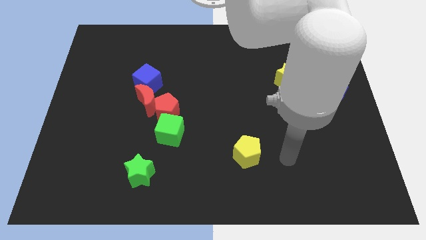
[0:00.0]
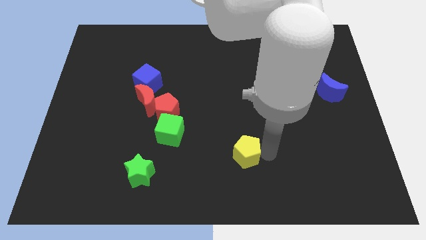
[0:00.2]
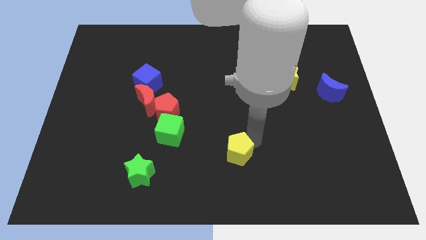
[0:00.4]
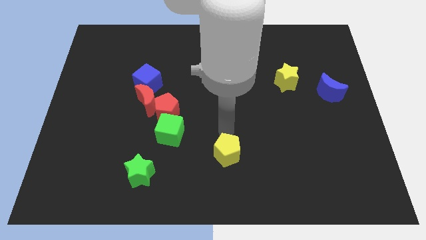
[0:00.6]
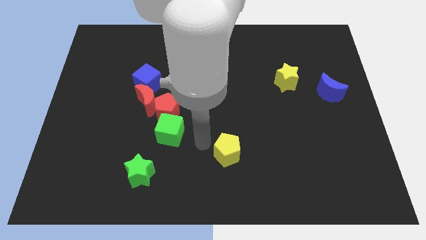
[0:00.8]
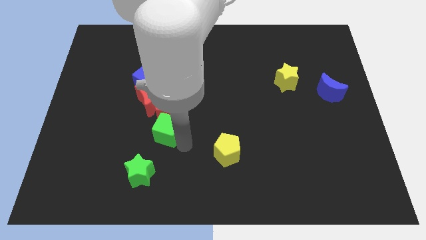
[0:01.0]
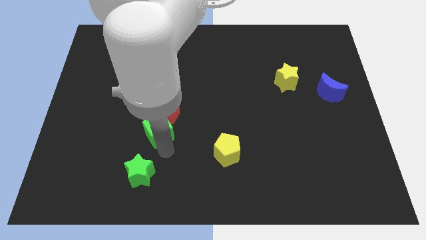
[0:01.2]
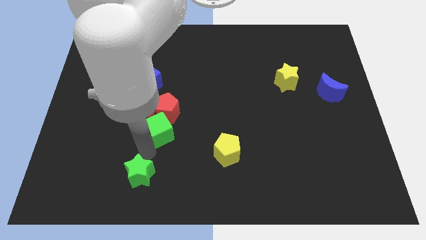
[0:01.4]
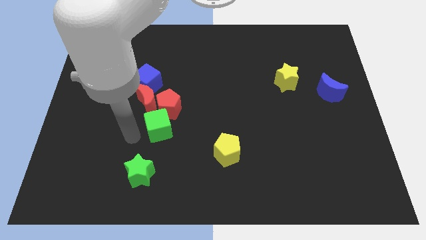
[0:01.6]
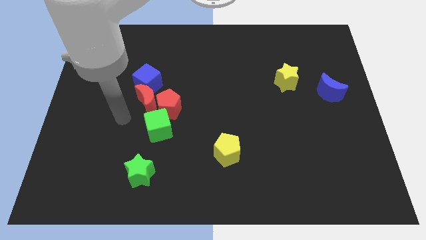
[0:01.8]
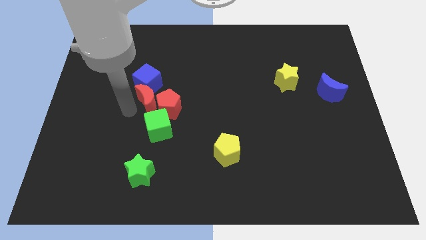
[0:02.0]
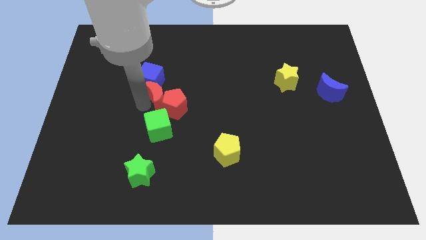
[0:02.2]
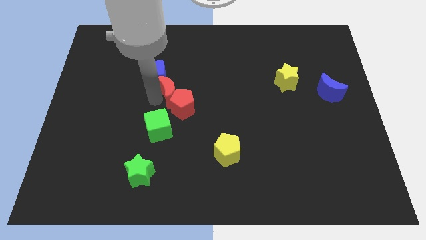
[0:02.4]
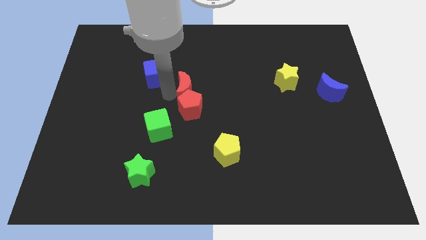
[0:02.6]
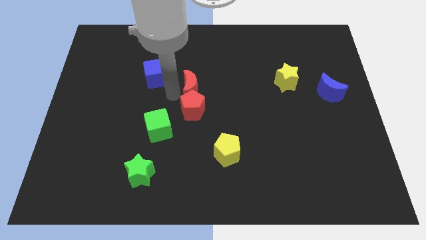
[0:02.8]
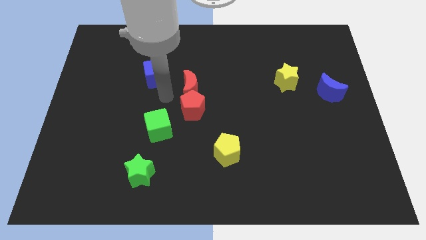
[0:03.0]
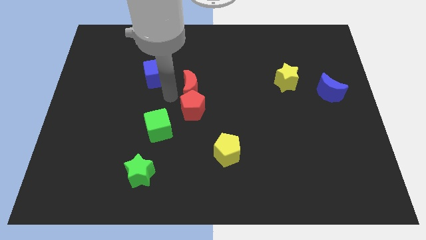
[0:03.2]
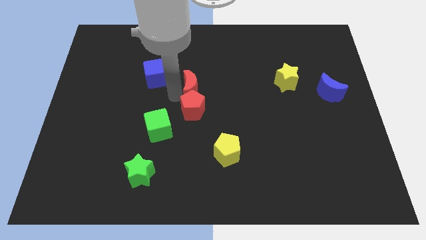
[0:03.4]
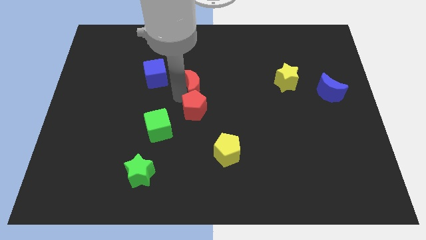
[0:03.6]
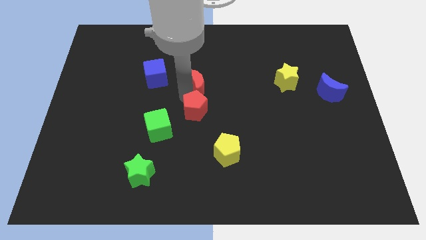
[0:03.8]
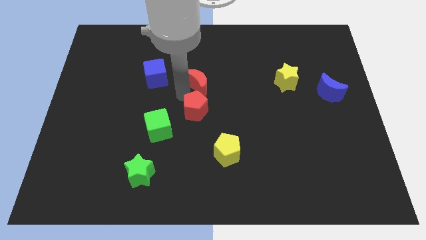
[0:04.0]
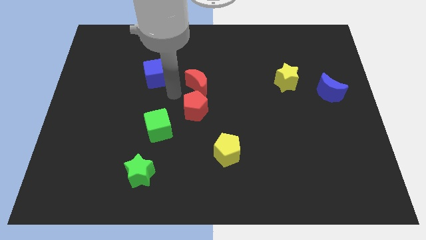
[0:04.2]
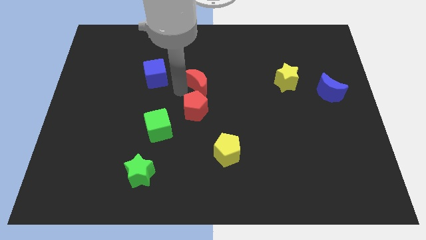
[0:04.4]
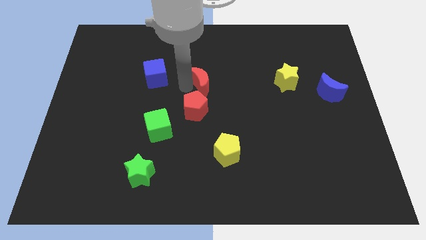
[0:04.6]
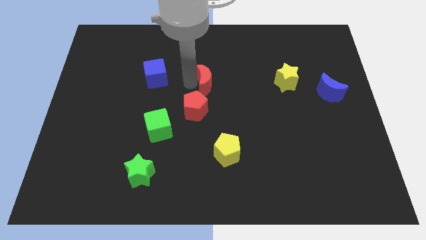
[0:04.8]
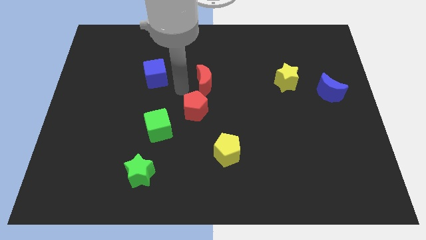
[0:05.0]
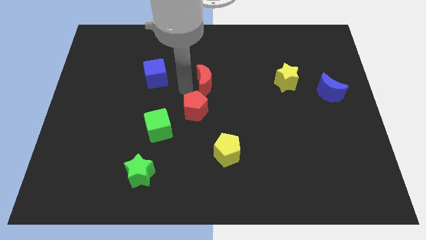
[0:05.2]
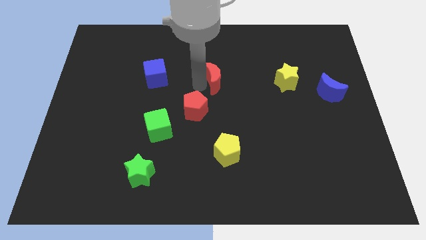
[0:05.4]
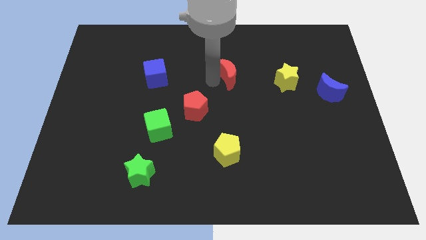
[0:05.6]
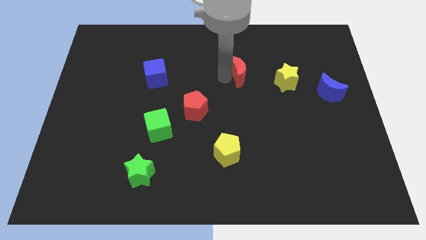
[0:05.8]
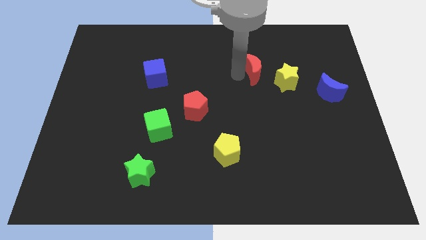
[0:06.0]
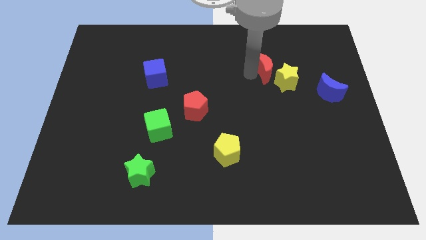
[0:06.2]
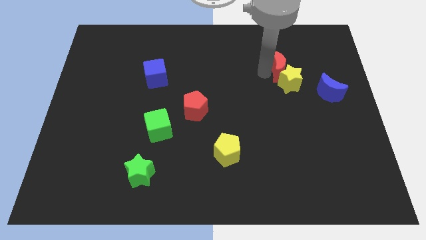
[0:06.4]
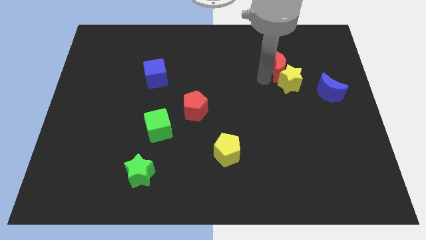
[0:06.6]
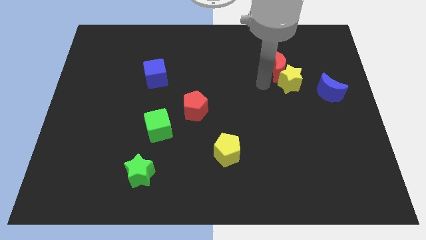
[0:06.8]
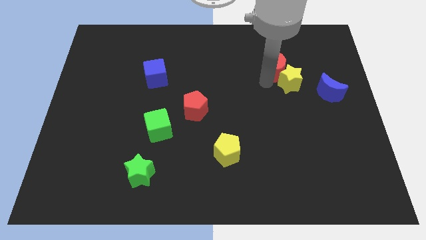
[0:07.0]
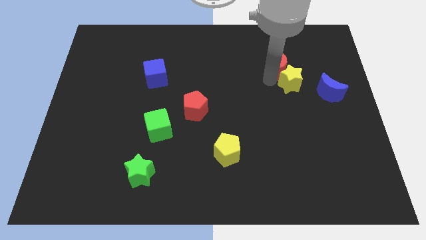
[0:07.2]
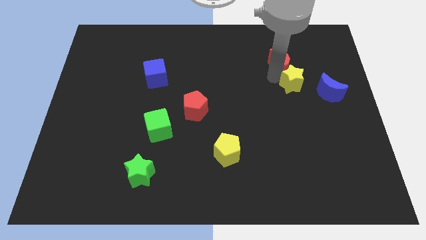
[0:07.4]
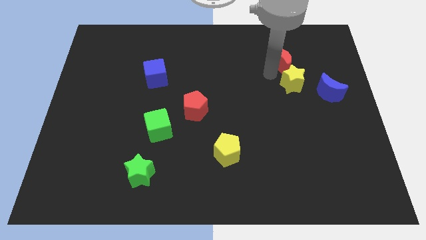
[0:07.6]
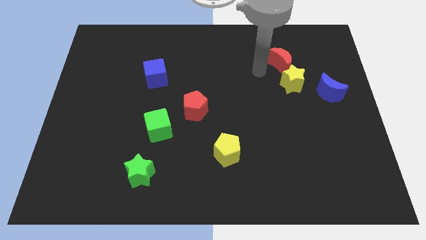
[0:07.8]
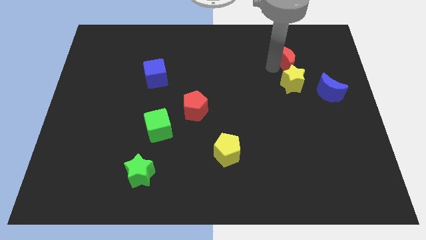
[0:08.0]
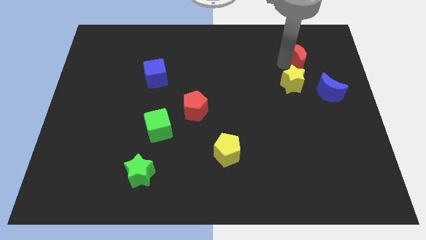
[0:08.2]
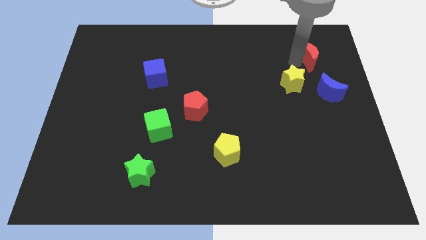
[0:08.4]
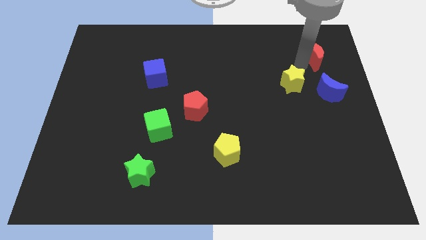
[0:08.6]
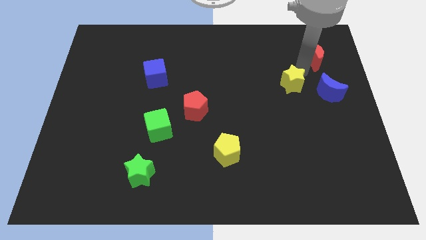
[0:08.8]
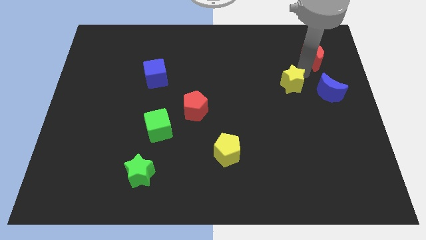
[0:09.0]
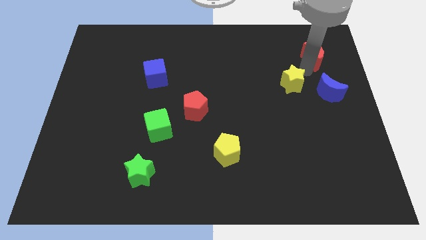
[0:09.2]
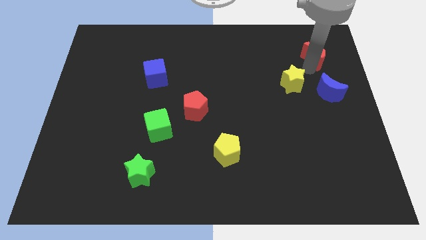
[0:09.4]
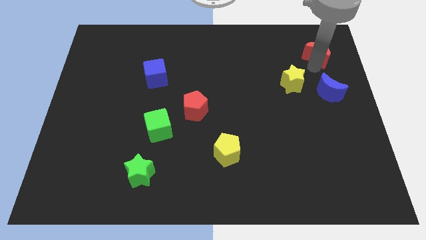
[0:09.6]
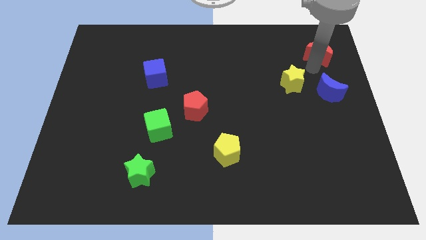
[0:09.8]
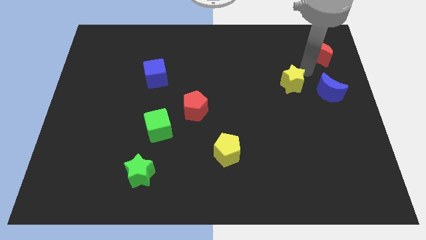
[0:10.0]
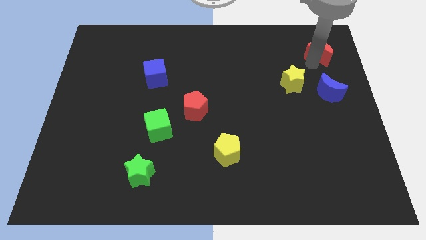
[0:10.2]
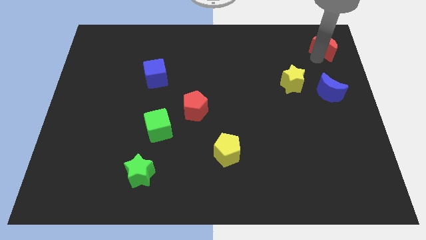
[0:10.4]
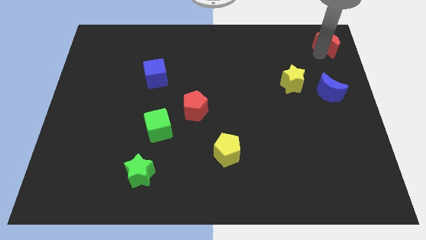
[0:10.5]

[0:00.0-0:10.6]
push the red moon to the top right

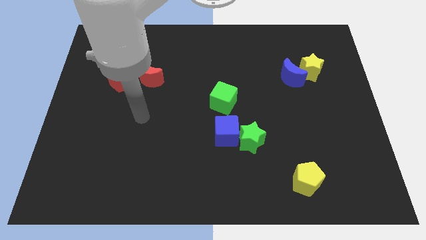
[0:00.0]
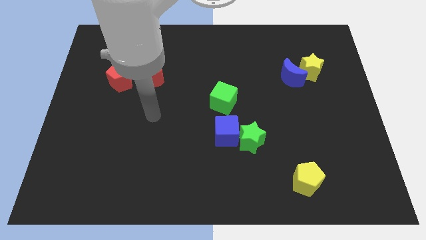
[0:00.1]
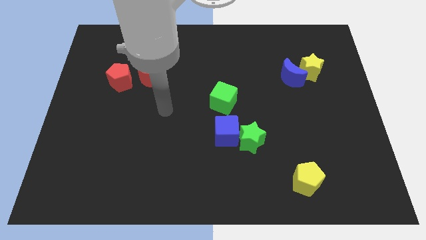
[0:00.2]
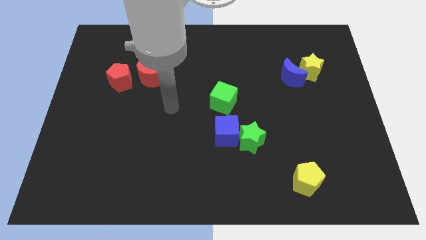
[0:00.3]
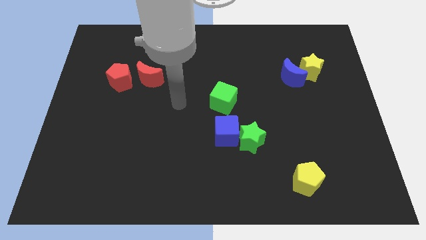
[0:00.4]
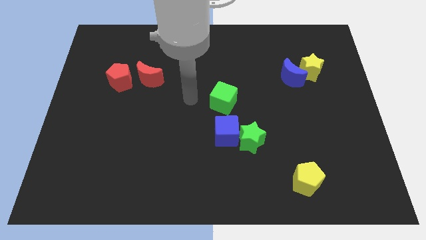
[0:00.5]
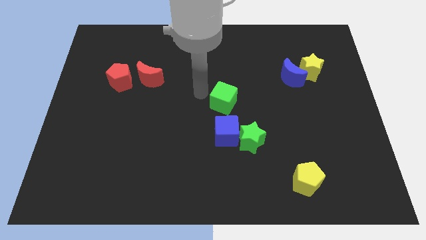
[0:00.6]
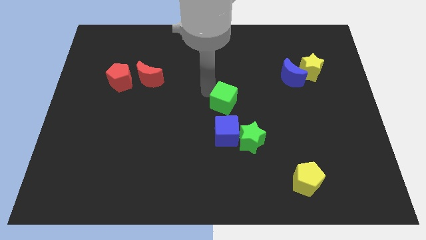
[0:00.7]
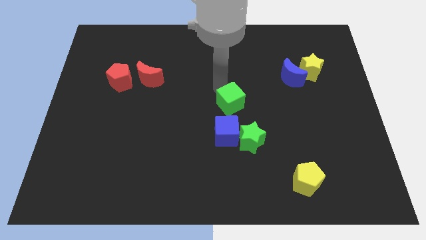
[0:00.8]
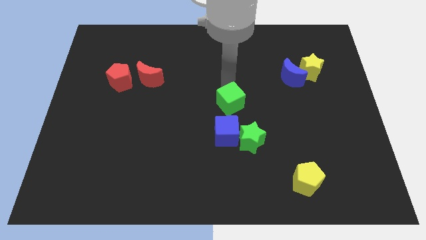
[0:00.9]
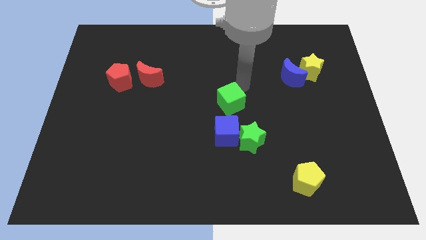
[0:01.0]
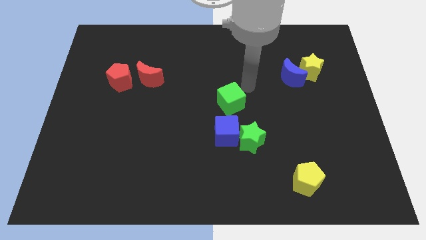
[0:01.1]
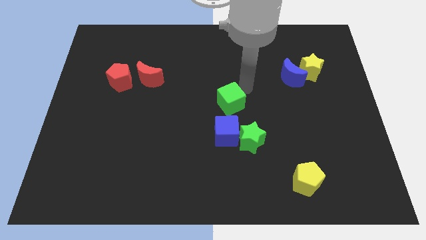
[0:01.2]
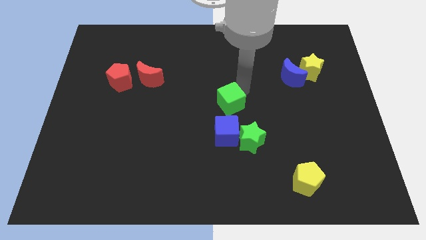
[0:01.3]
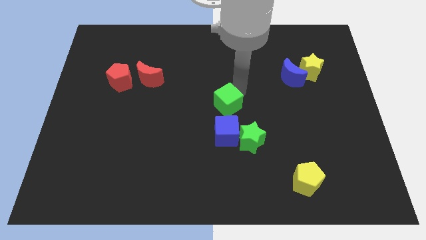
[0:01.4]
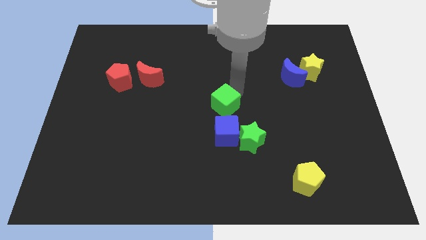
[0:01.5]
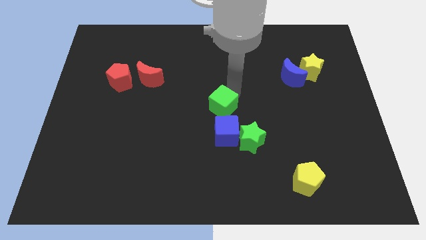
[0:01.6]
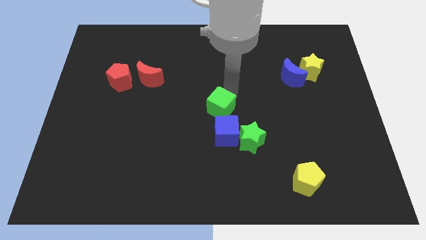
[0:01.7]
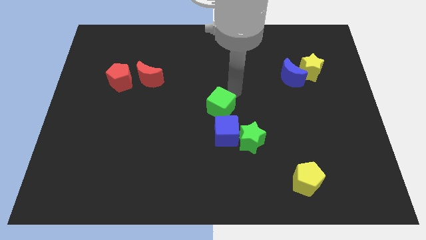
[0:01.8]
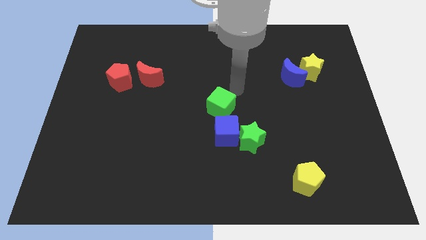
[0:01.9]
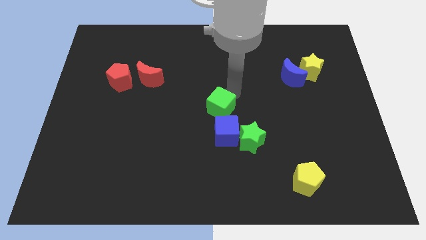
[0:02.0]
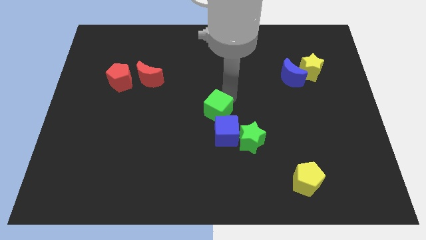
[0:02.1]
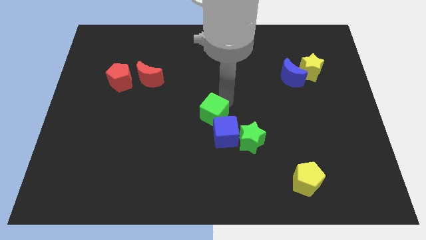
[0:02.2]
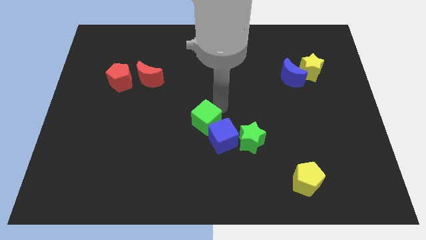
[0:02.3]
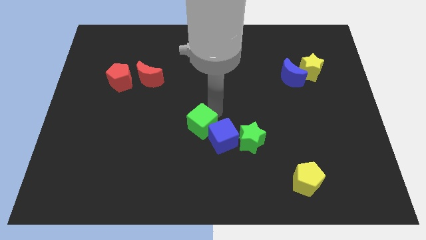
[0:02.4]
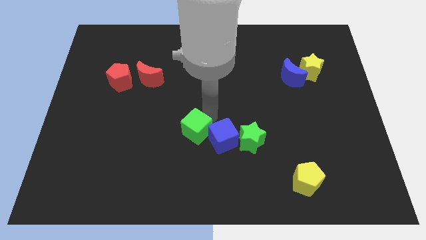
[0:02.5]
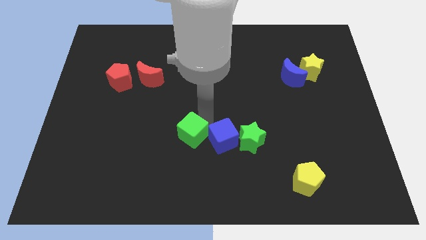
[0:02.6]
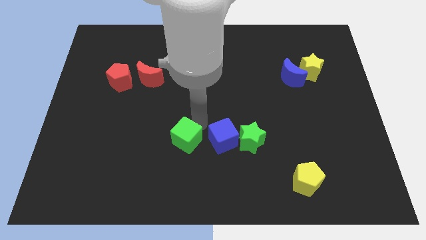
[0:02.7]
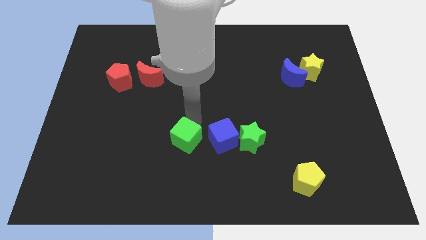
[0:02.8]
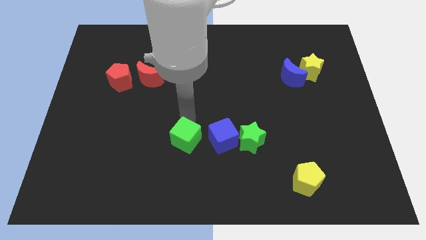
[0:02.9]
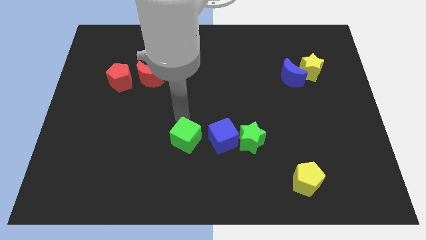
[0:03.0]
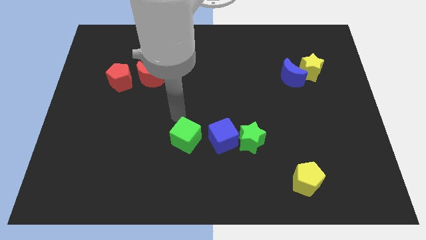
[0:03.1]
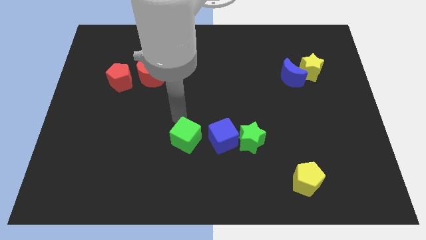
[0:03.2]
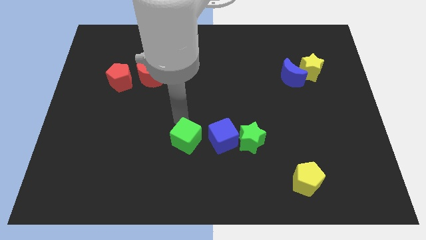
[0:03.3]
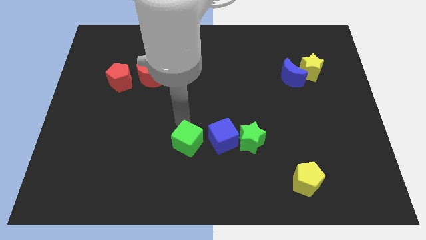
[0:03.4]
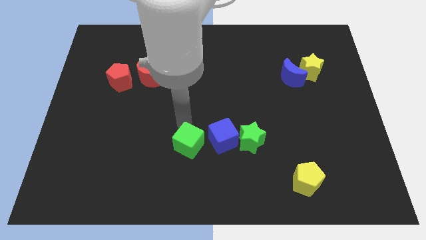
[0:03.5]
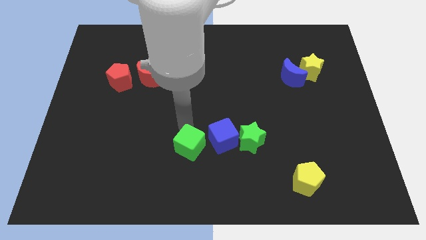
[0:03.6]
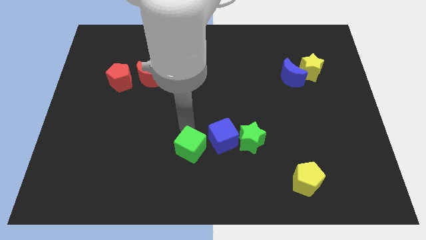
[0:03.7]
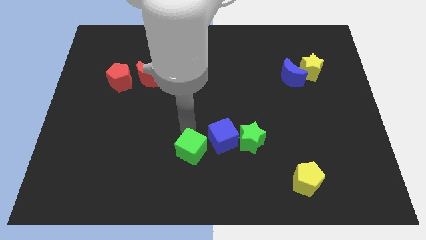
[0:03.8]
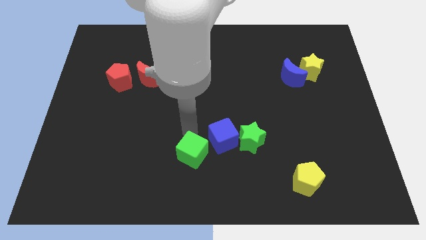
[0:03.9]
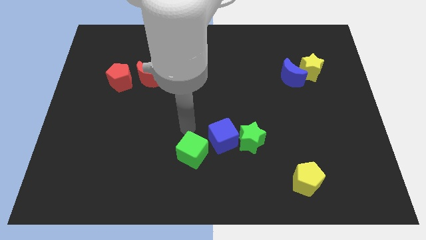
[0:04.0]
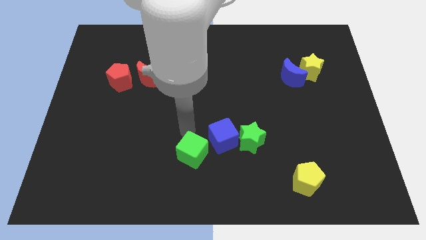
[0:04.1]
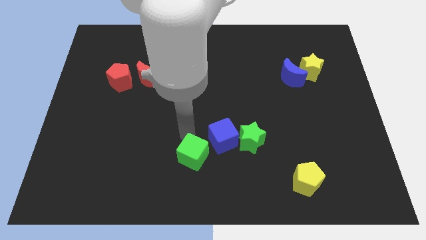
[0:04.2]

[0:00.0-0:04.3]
move the green cube to the bottom side
